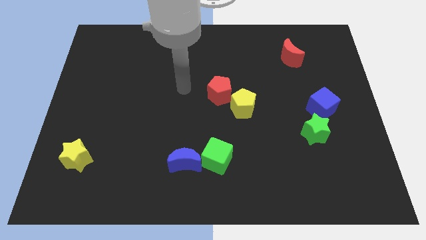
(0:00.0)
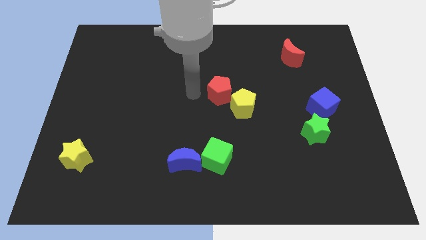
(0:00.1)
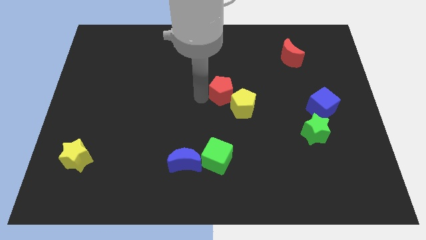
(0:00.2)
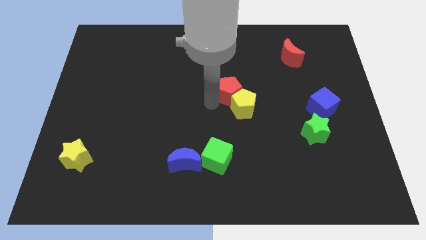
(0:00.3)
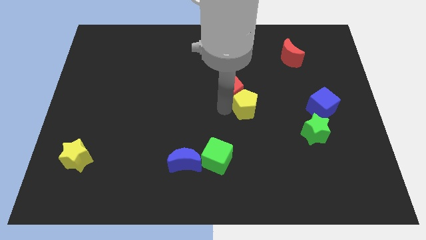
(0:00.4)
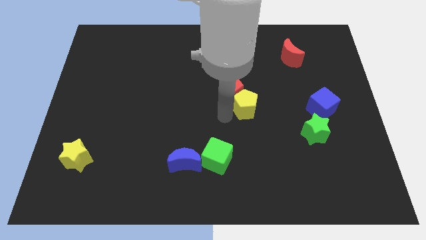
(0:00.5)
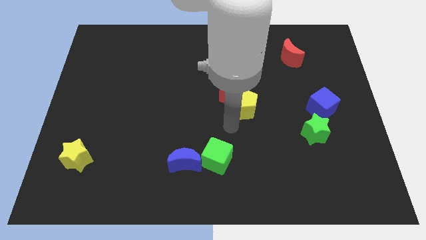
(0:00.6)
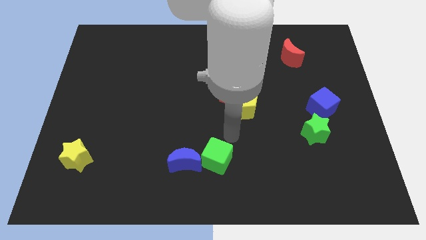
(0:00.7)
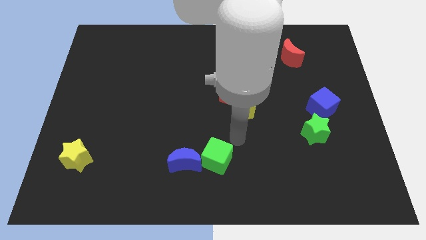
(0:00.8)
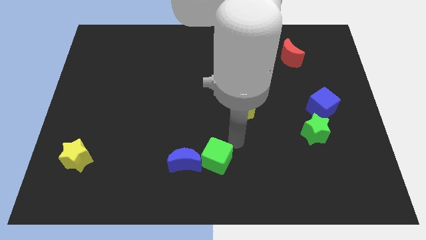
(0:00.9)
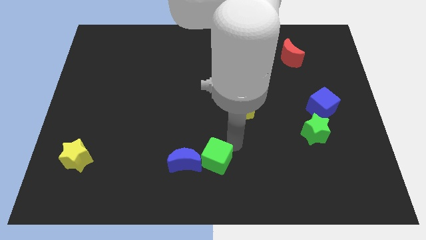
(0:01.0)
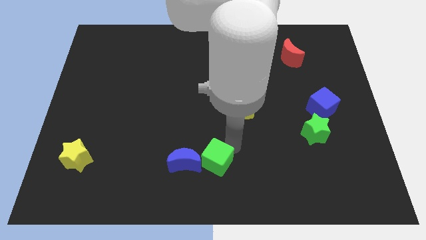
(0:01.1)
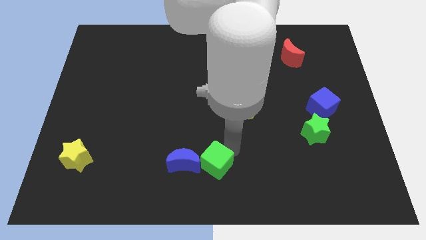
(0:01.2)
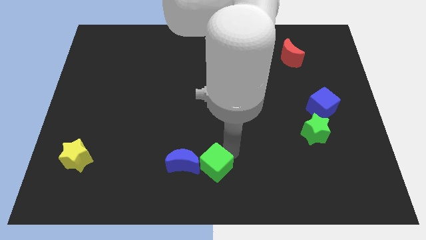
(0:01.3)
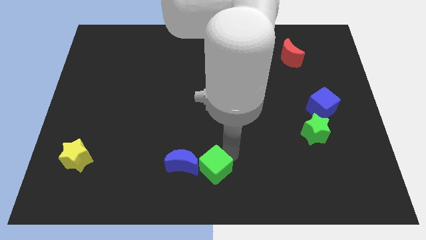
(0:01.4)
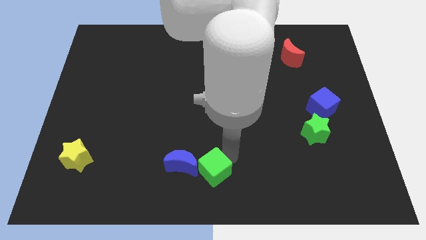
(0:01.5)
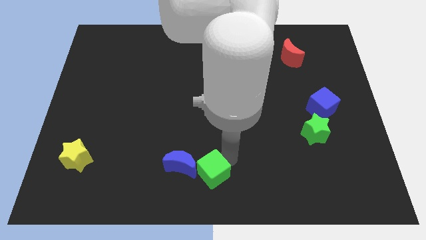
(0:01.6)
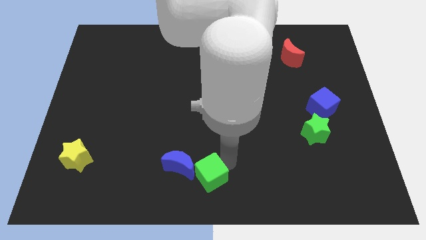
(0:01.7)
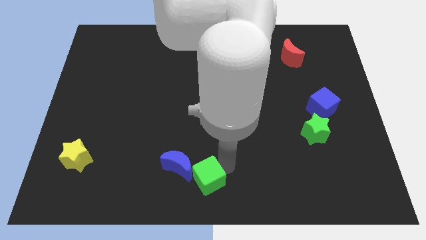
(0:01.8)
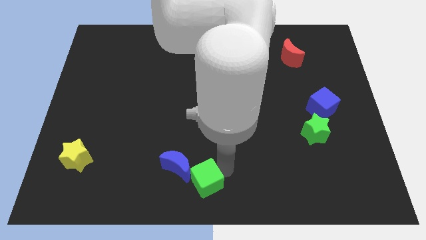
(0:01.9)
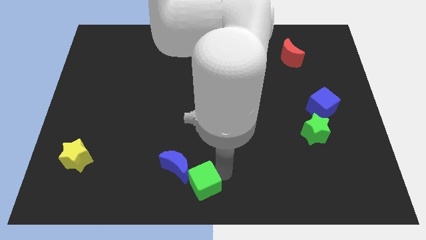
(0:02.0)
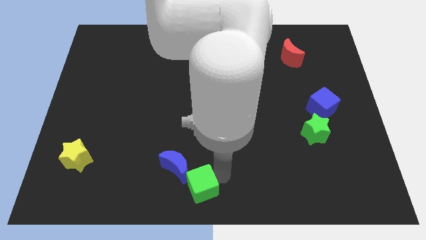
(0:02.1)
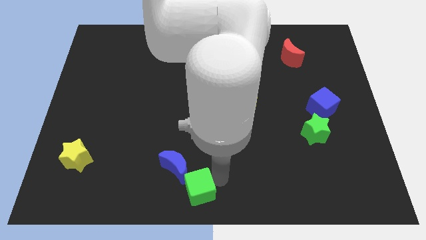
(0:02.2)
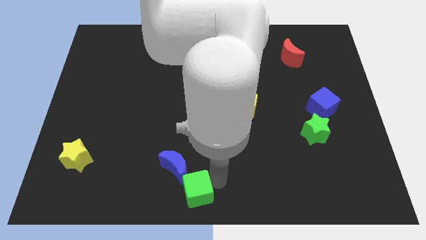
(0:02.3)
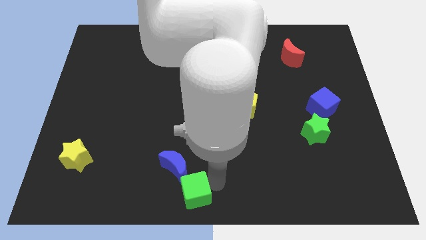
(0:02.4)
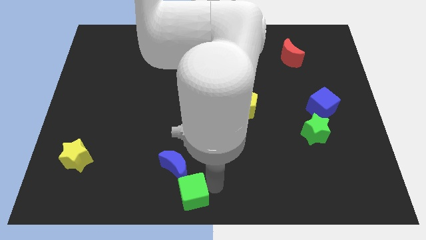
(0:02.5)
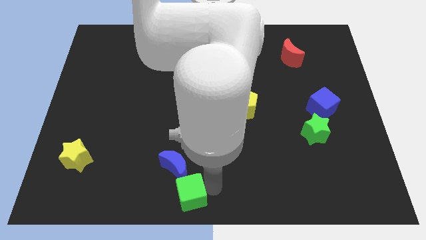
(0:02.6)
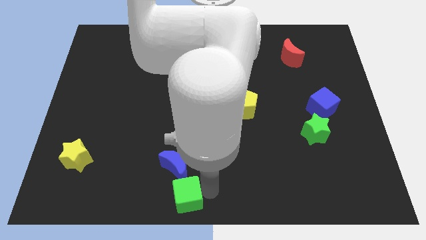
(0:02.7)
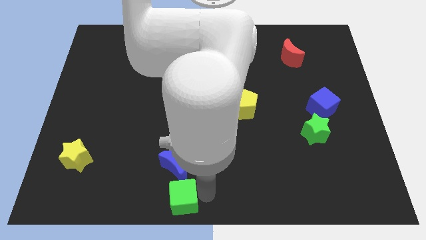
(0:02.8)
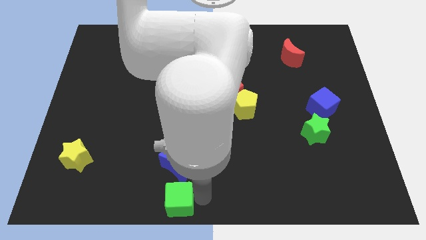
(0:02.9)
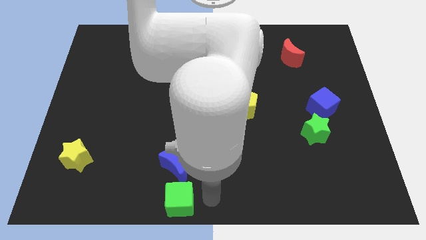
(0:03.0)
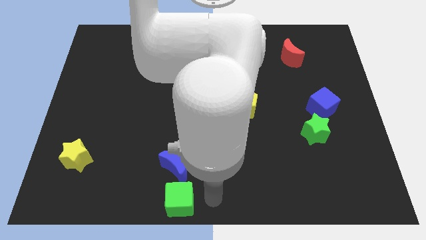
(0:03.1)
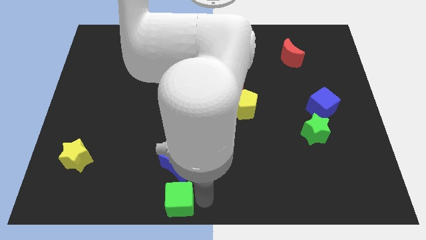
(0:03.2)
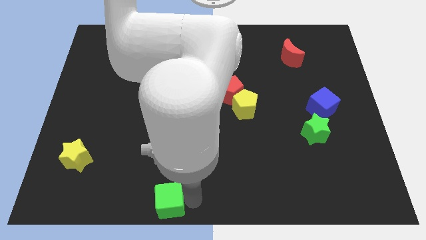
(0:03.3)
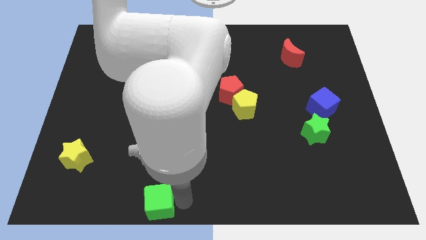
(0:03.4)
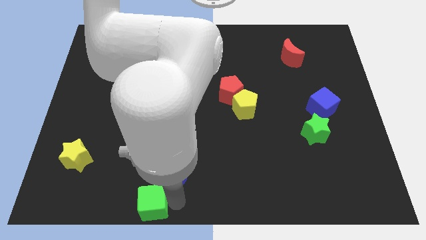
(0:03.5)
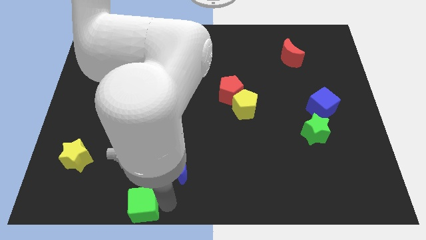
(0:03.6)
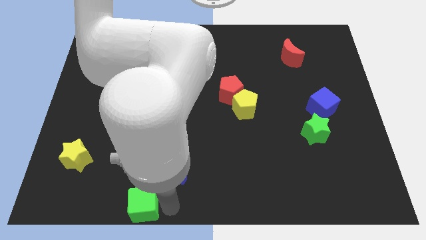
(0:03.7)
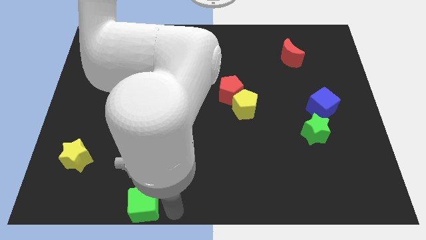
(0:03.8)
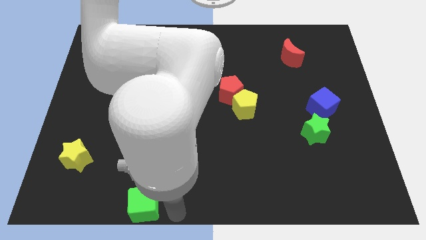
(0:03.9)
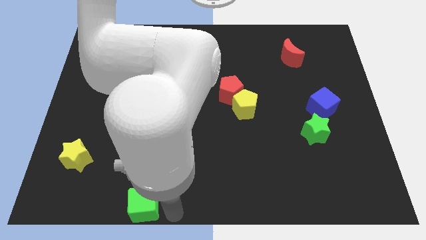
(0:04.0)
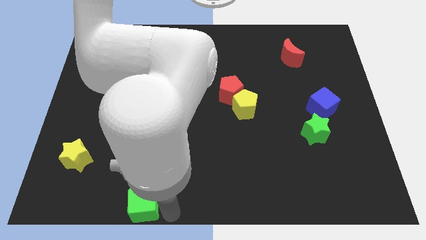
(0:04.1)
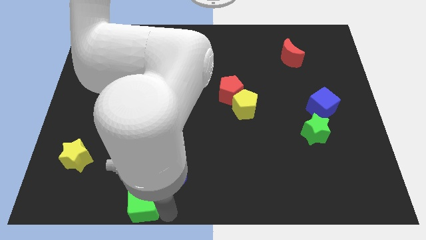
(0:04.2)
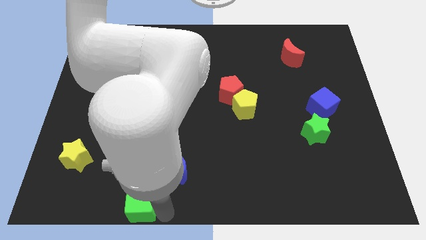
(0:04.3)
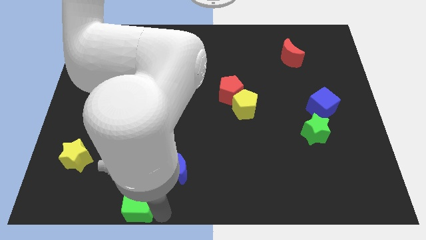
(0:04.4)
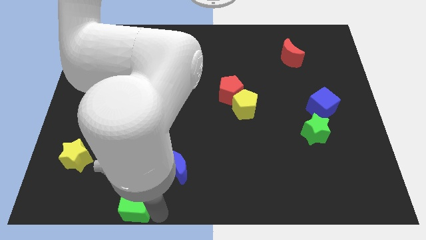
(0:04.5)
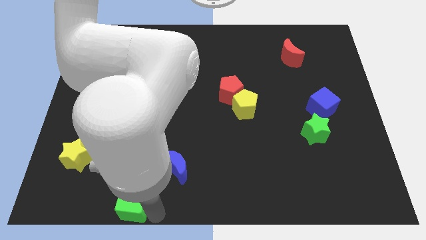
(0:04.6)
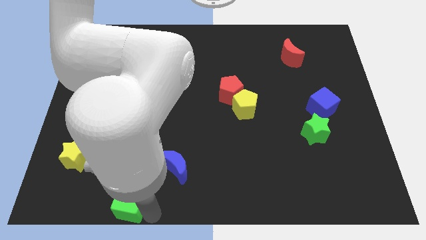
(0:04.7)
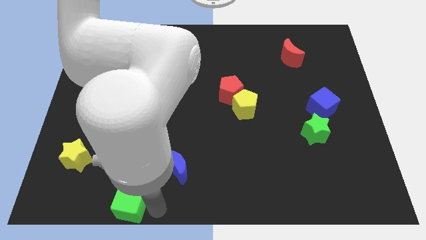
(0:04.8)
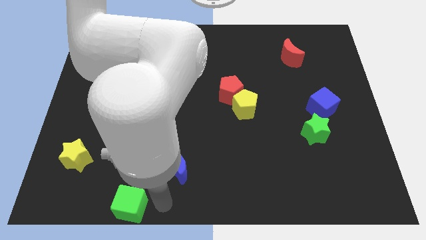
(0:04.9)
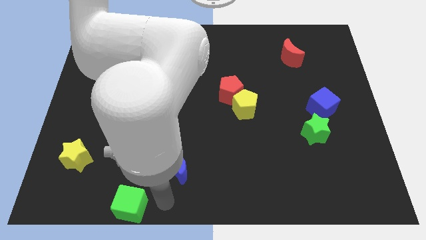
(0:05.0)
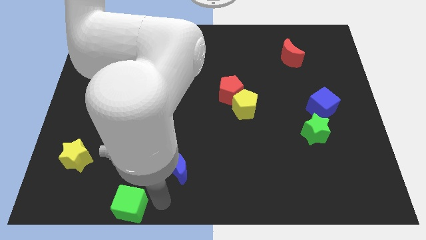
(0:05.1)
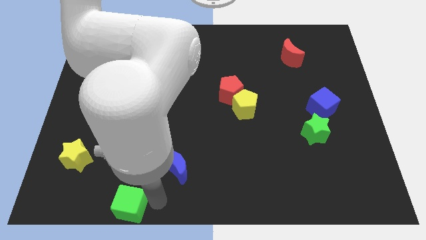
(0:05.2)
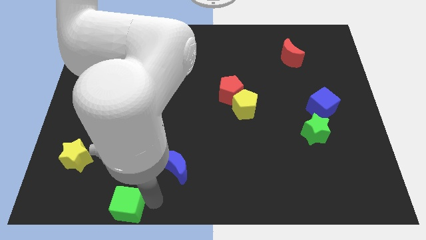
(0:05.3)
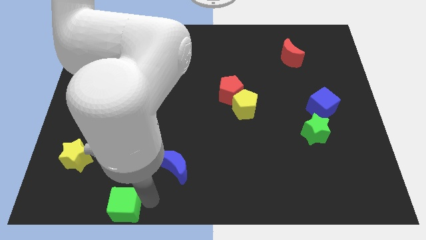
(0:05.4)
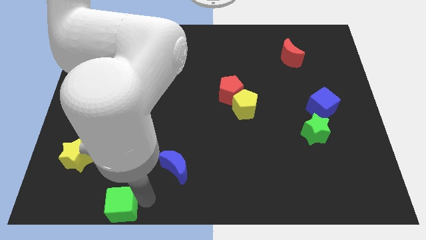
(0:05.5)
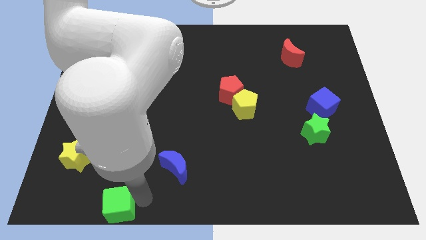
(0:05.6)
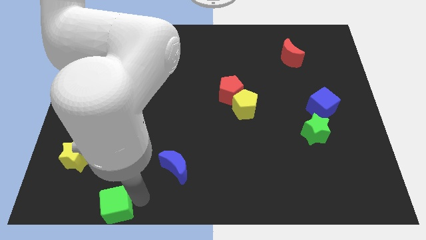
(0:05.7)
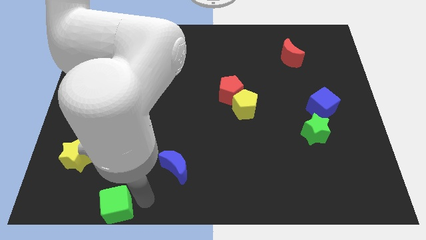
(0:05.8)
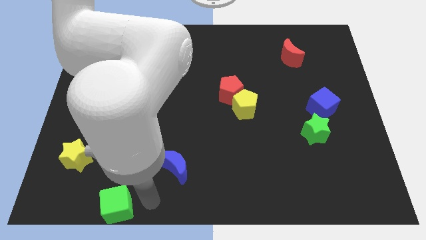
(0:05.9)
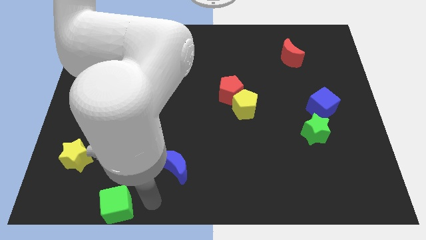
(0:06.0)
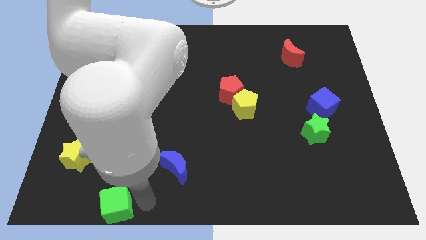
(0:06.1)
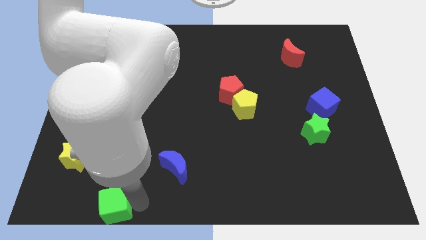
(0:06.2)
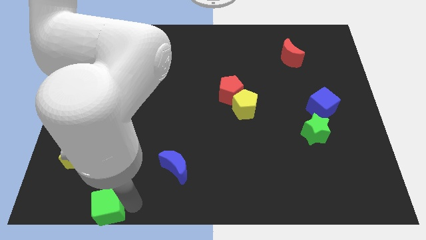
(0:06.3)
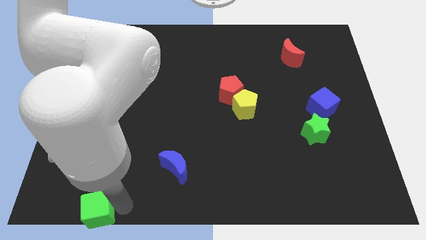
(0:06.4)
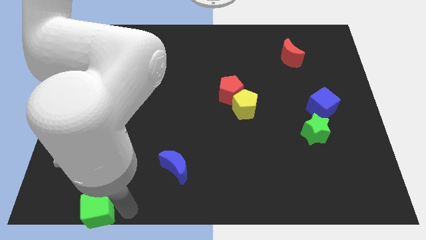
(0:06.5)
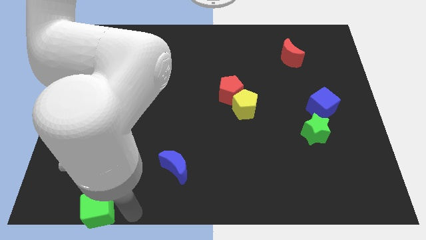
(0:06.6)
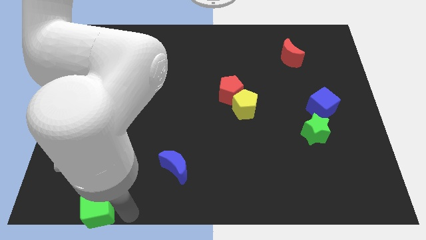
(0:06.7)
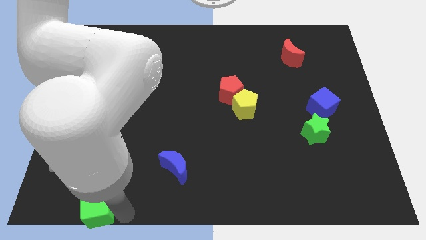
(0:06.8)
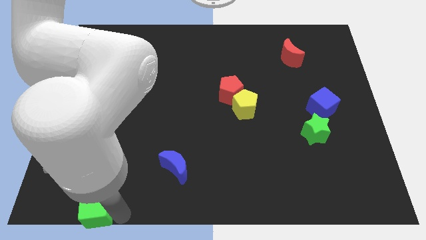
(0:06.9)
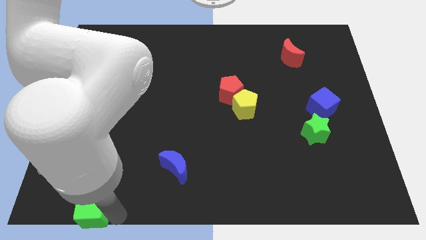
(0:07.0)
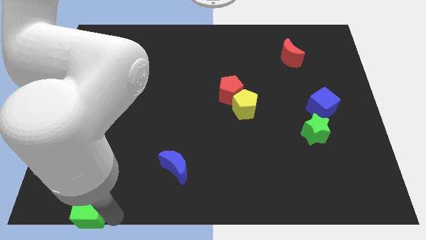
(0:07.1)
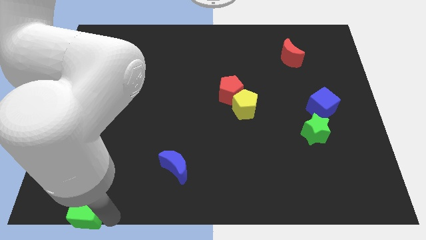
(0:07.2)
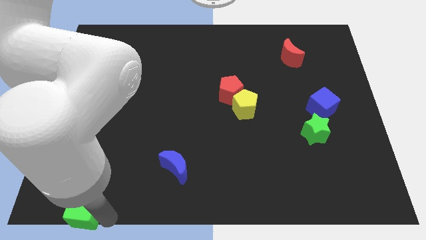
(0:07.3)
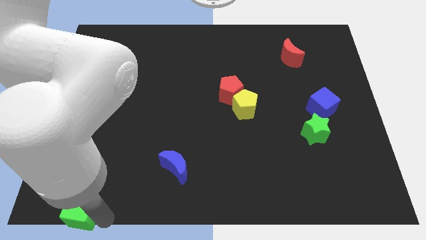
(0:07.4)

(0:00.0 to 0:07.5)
push the green cube to the bottom left corner
